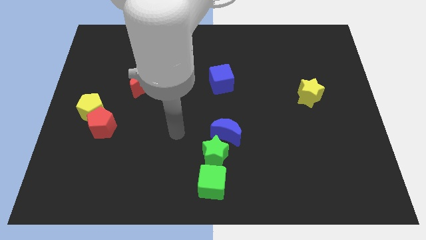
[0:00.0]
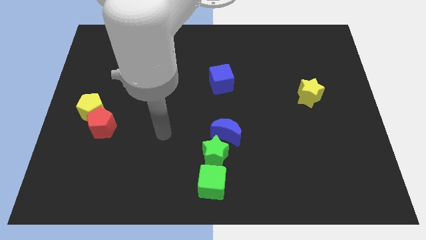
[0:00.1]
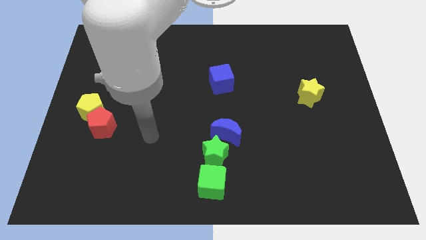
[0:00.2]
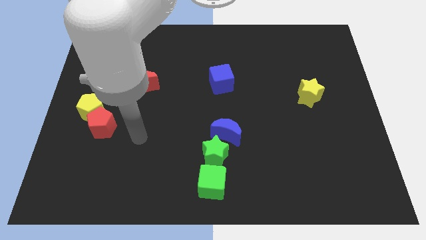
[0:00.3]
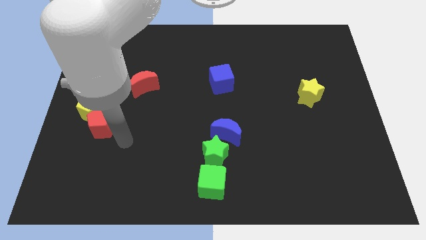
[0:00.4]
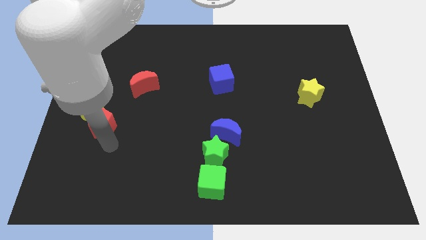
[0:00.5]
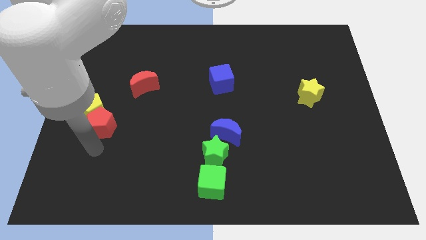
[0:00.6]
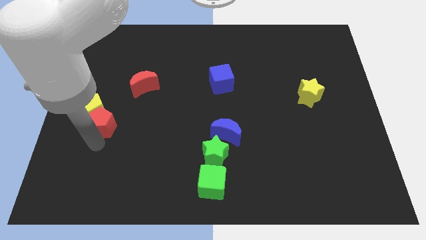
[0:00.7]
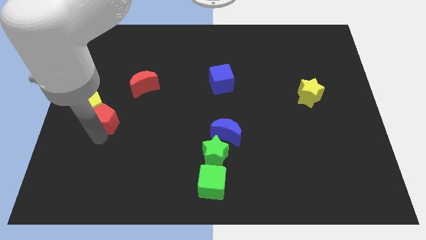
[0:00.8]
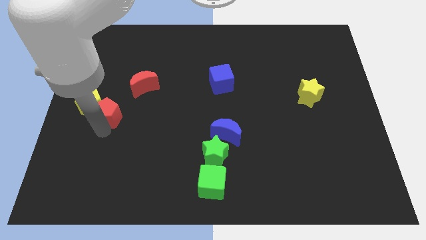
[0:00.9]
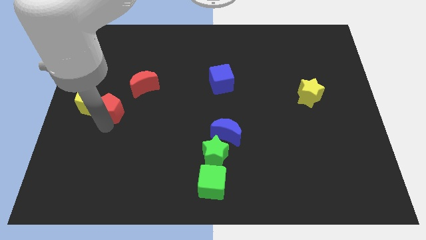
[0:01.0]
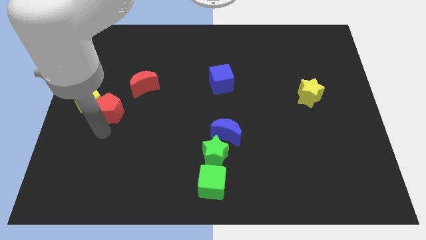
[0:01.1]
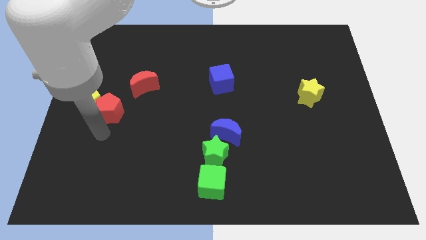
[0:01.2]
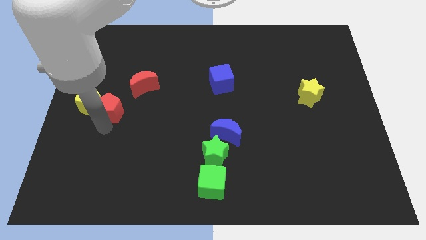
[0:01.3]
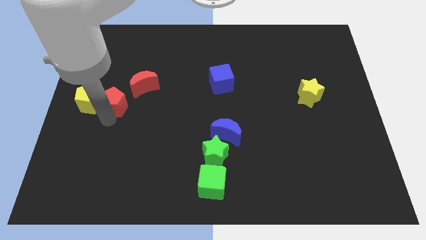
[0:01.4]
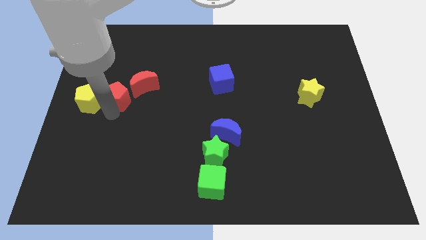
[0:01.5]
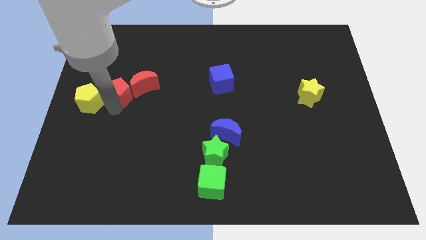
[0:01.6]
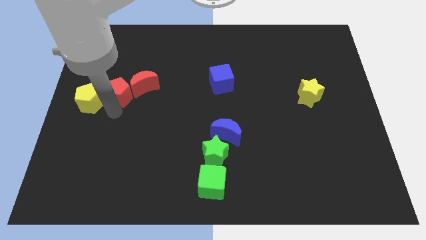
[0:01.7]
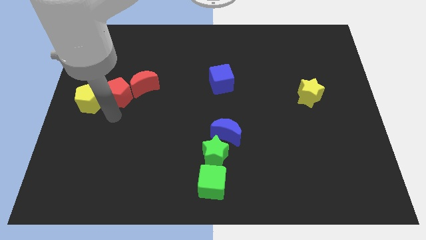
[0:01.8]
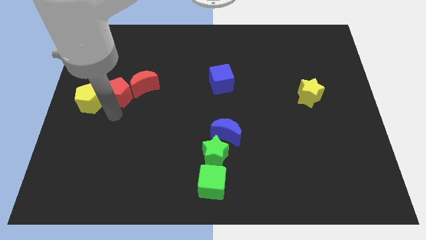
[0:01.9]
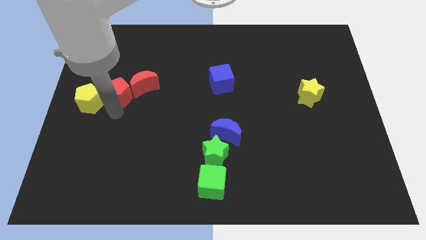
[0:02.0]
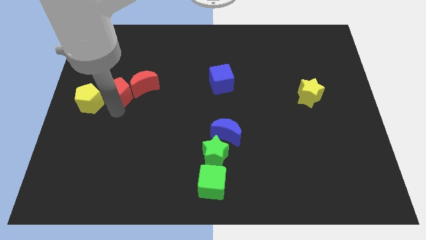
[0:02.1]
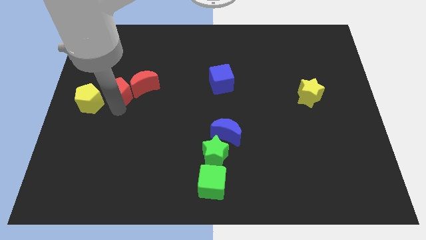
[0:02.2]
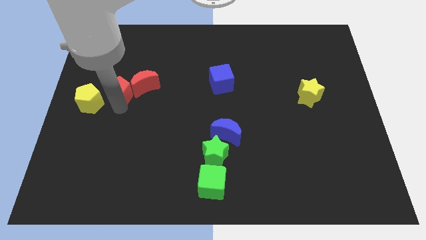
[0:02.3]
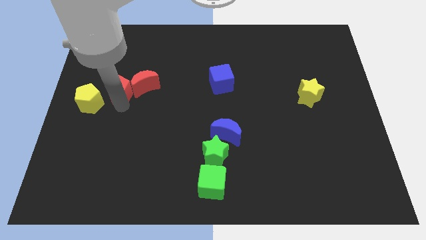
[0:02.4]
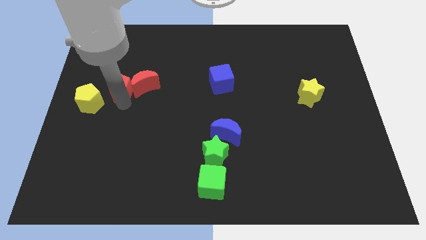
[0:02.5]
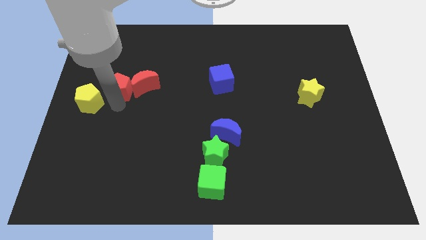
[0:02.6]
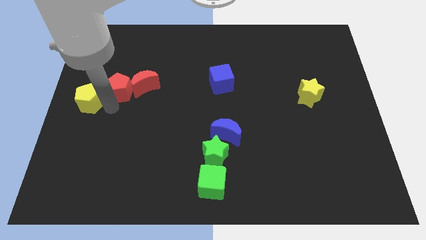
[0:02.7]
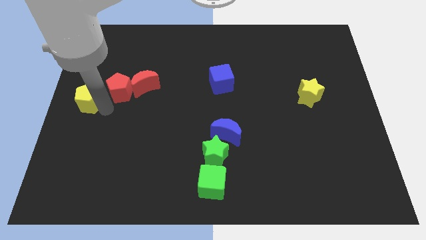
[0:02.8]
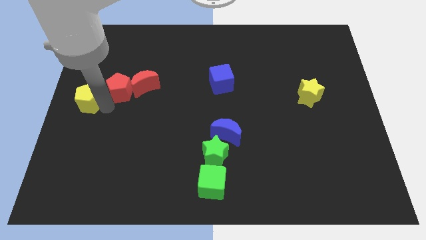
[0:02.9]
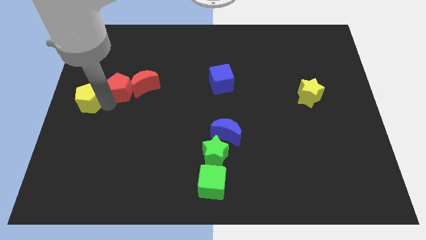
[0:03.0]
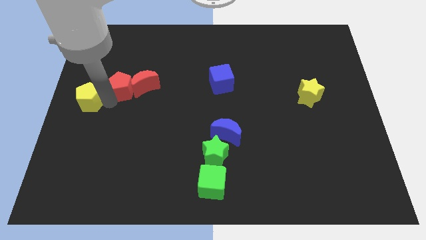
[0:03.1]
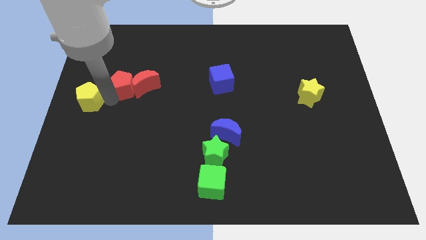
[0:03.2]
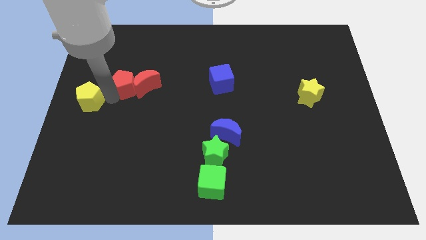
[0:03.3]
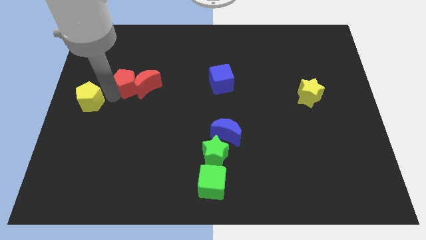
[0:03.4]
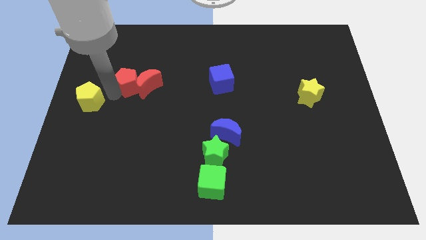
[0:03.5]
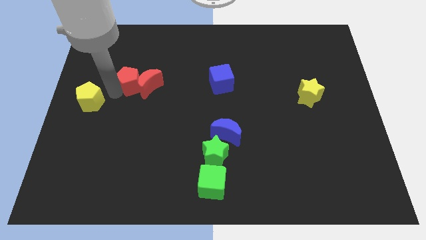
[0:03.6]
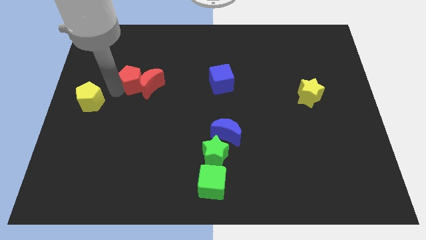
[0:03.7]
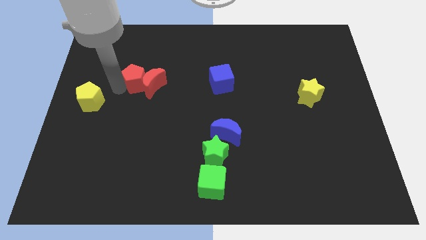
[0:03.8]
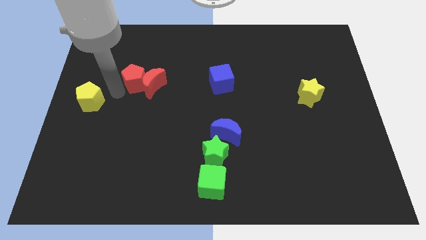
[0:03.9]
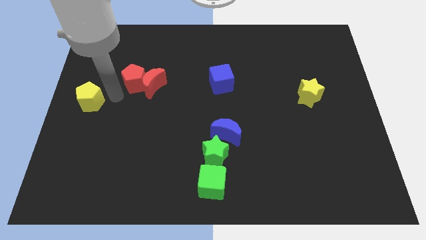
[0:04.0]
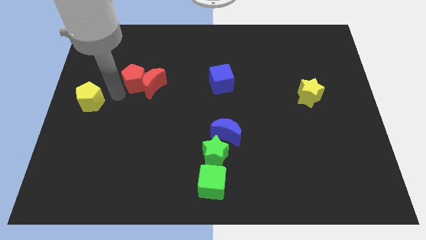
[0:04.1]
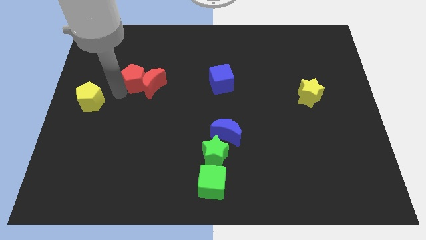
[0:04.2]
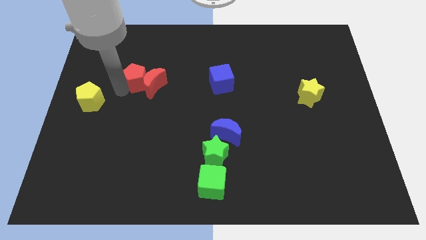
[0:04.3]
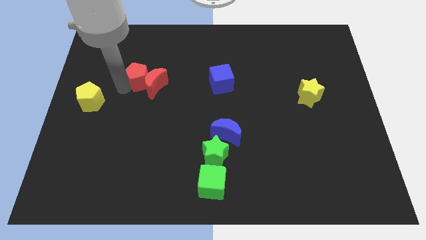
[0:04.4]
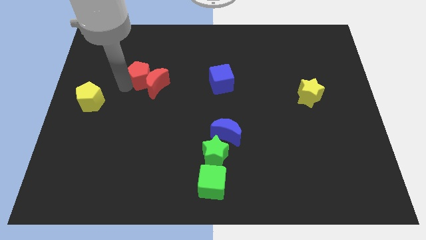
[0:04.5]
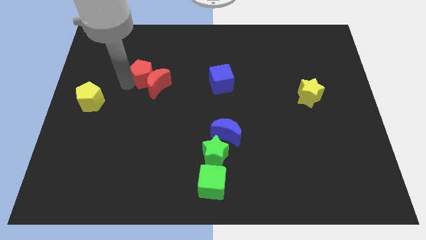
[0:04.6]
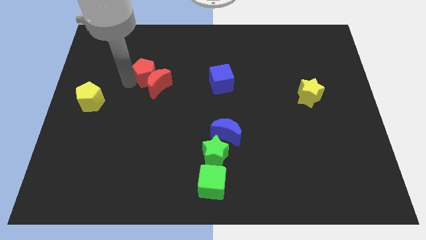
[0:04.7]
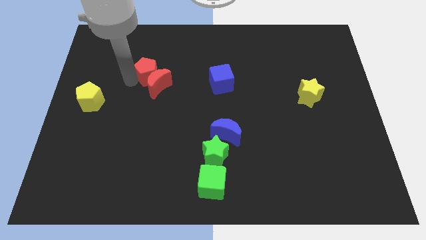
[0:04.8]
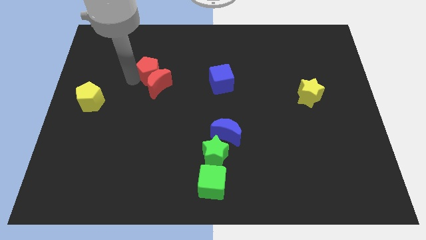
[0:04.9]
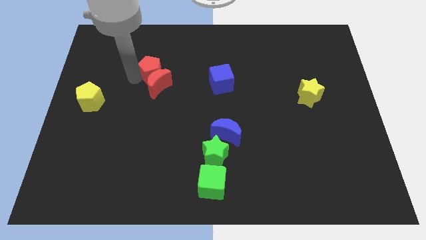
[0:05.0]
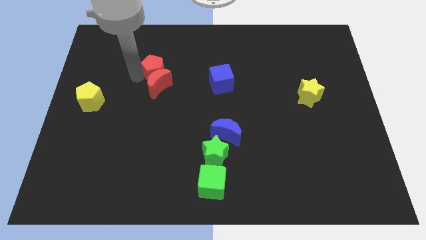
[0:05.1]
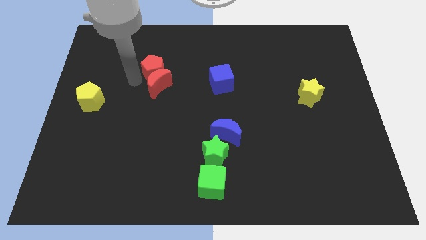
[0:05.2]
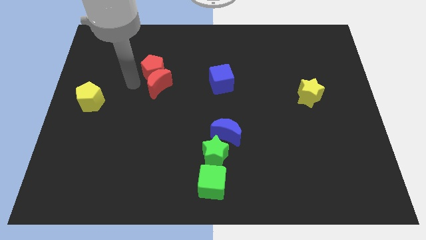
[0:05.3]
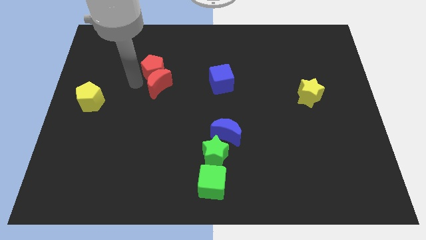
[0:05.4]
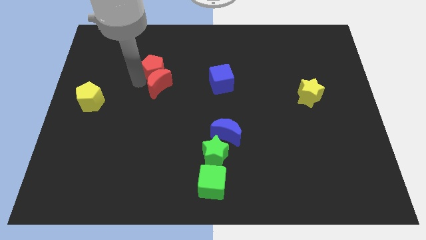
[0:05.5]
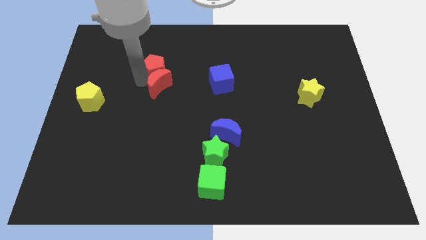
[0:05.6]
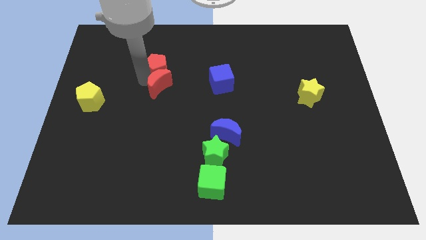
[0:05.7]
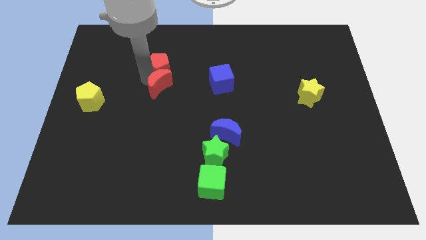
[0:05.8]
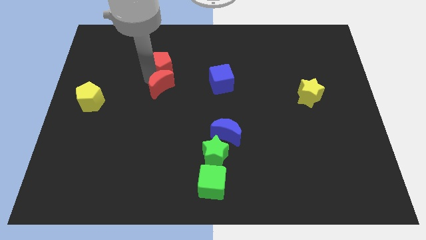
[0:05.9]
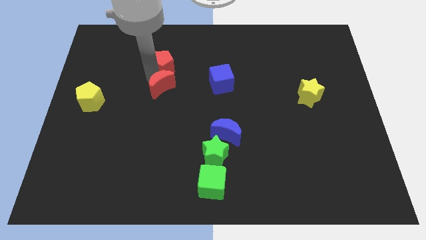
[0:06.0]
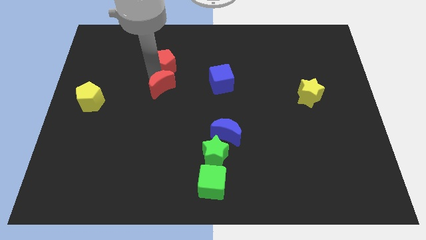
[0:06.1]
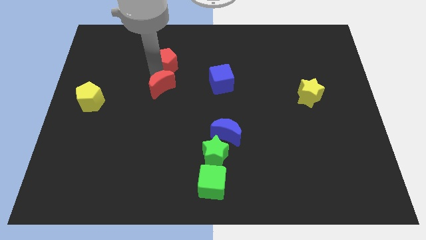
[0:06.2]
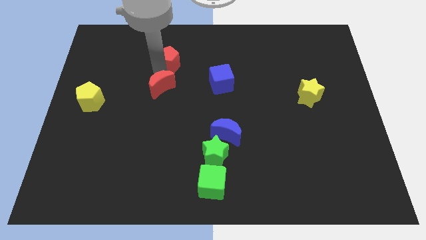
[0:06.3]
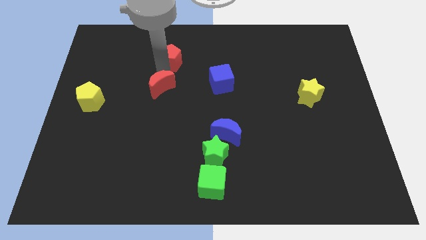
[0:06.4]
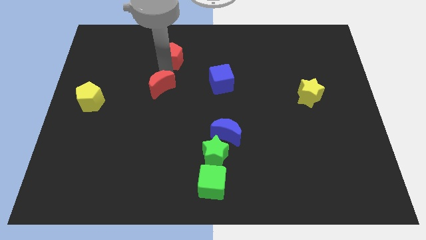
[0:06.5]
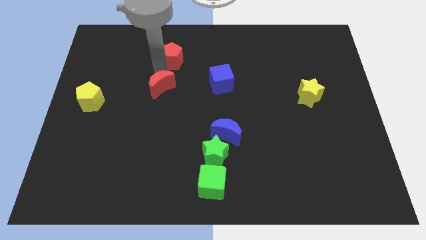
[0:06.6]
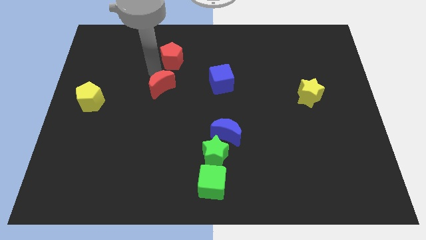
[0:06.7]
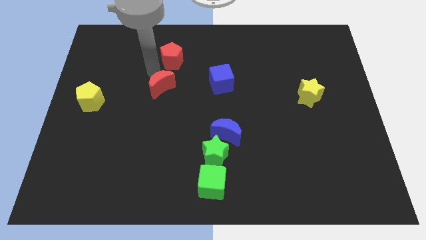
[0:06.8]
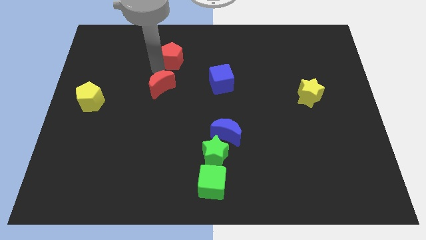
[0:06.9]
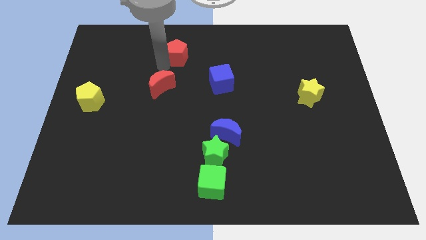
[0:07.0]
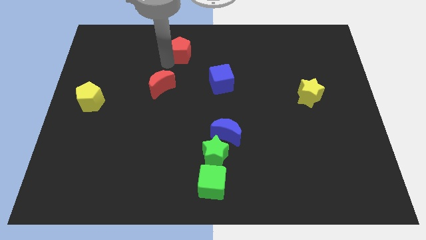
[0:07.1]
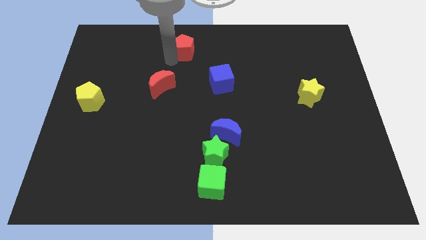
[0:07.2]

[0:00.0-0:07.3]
slide the red pentagon to the top side

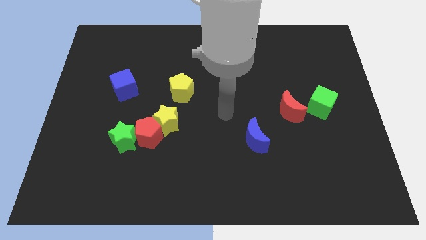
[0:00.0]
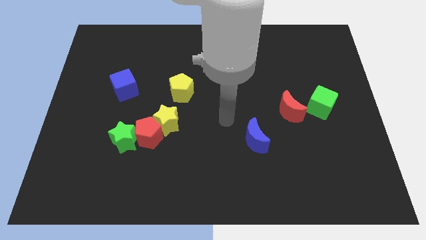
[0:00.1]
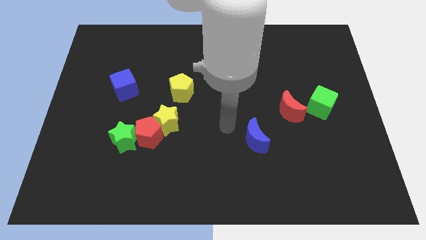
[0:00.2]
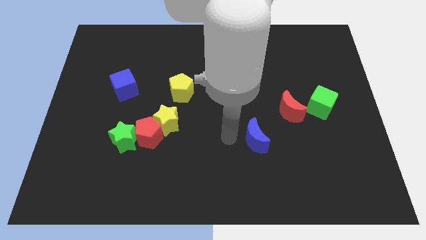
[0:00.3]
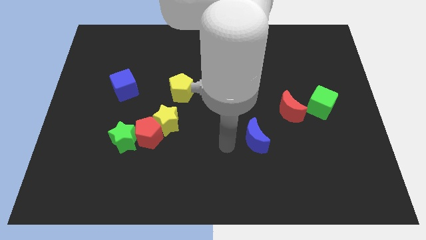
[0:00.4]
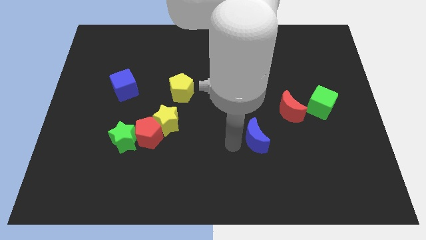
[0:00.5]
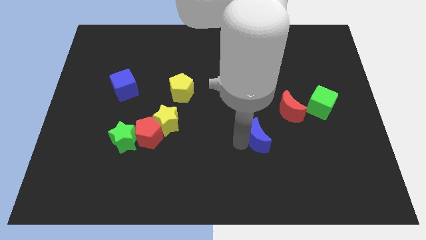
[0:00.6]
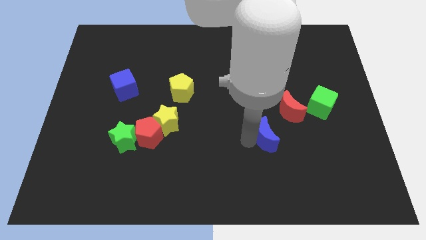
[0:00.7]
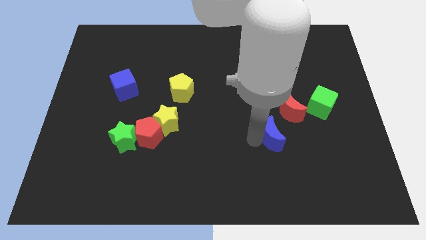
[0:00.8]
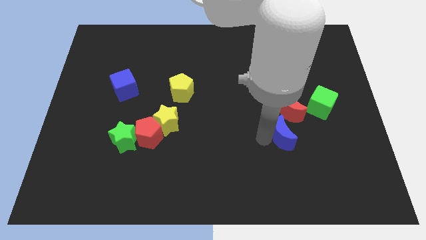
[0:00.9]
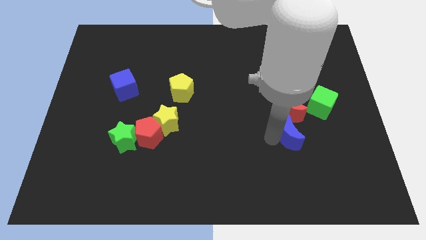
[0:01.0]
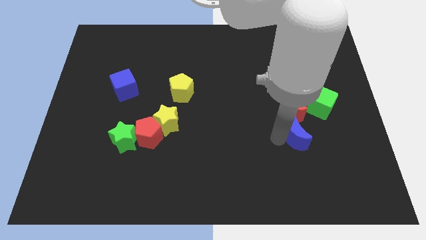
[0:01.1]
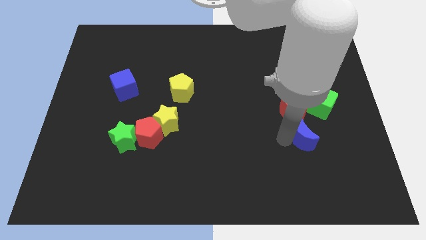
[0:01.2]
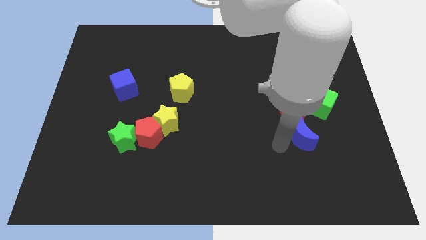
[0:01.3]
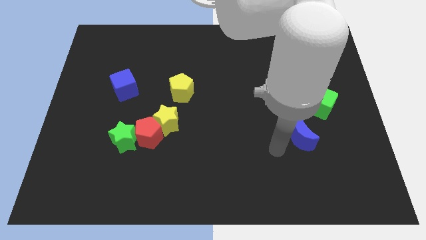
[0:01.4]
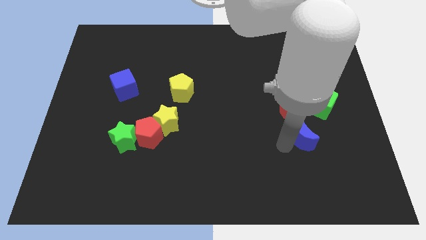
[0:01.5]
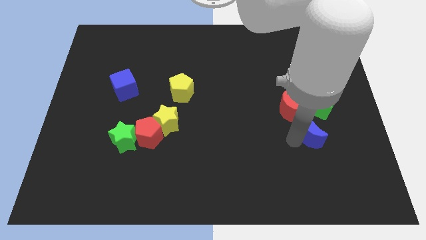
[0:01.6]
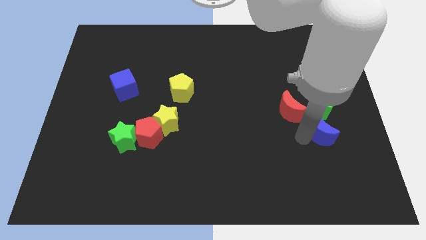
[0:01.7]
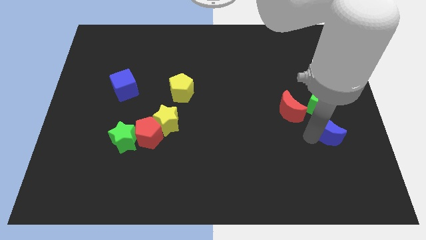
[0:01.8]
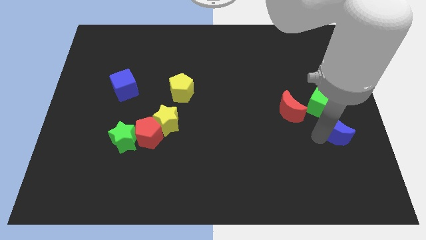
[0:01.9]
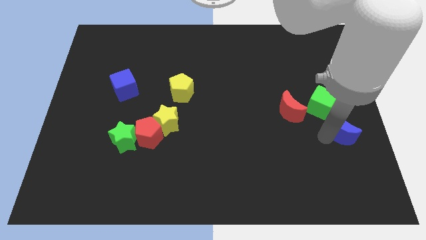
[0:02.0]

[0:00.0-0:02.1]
push the blue moon to the center right
